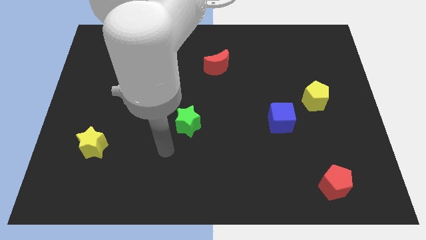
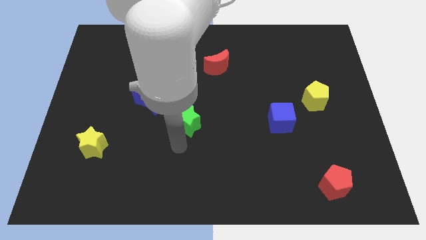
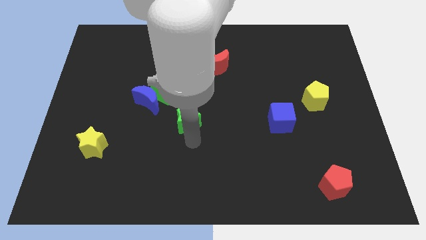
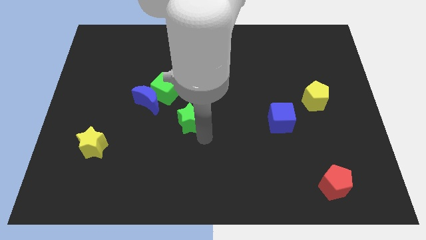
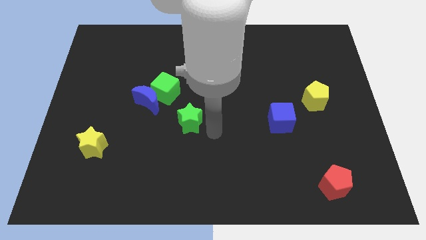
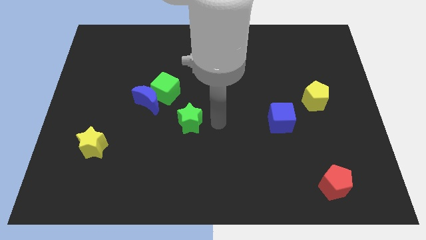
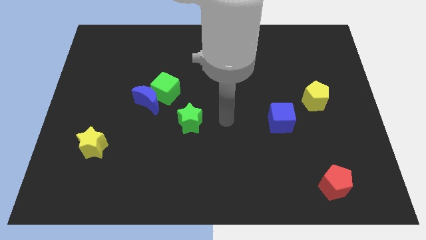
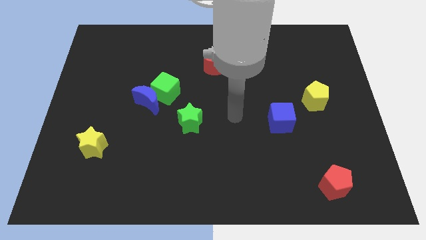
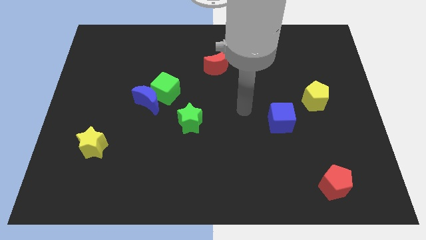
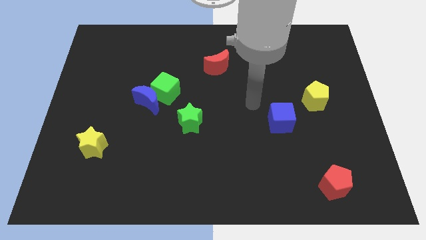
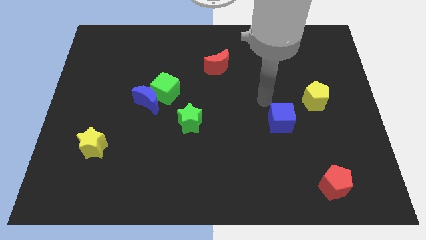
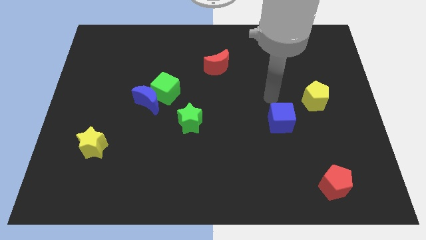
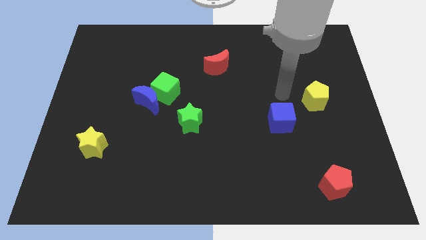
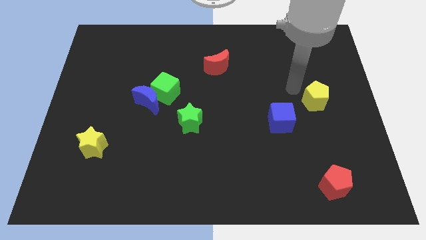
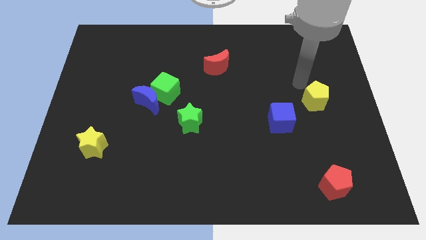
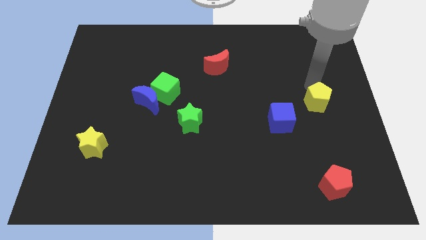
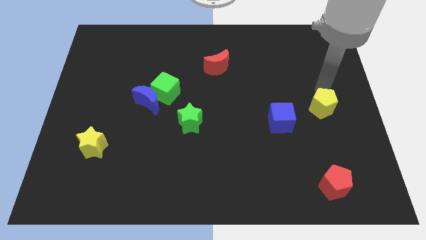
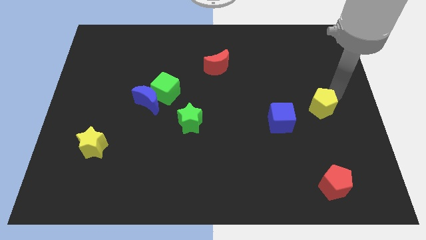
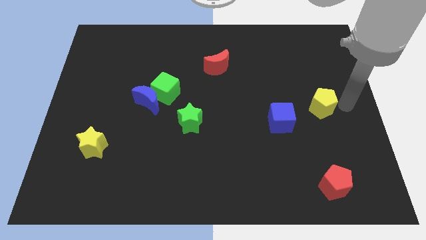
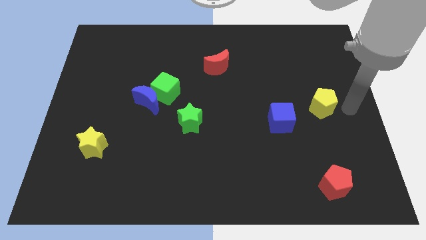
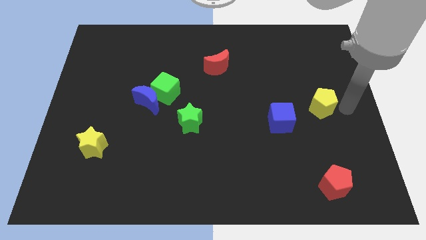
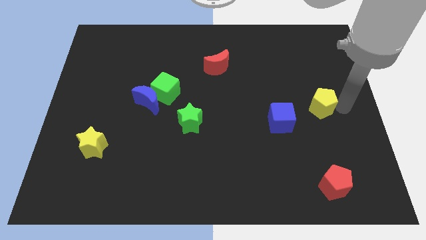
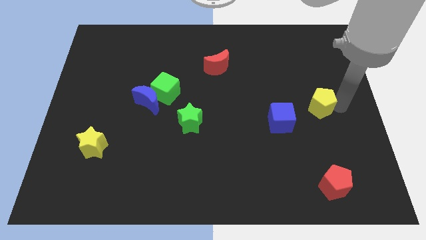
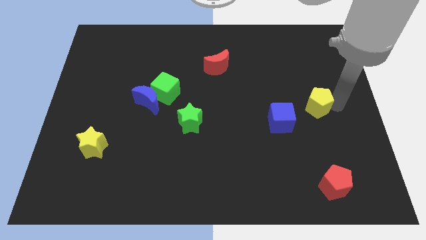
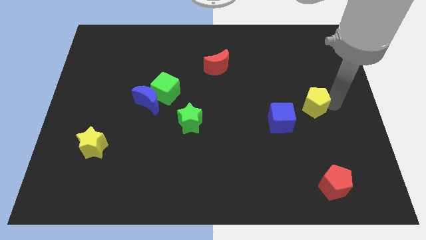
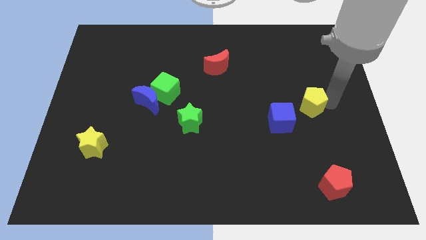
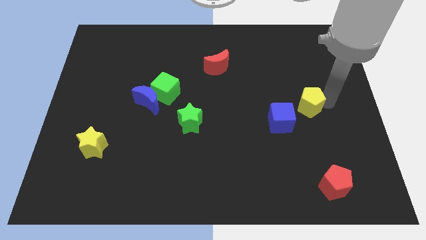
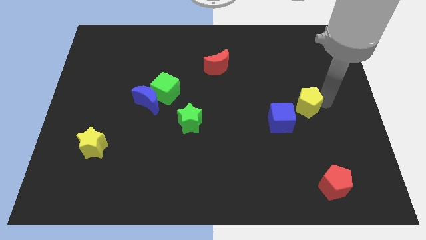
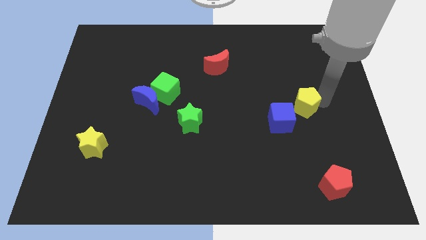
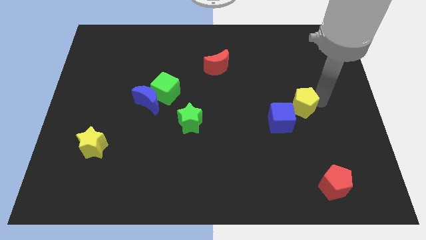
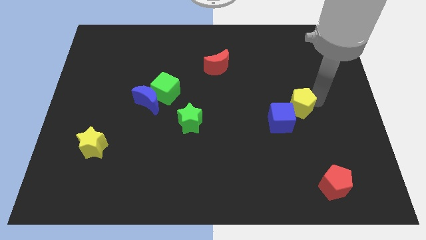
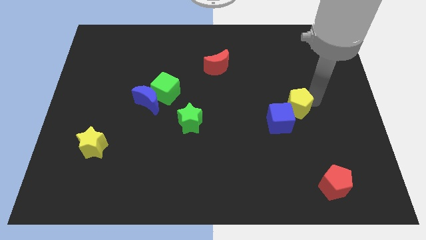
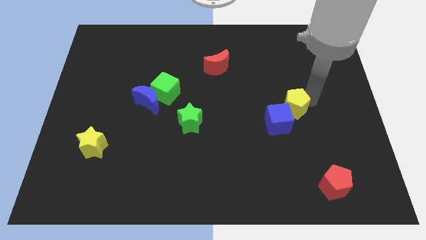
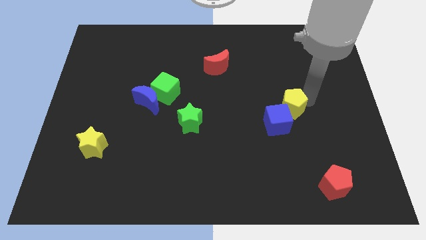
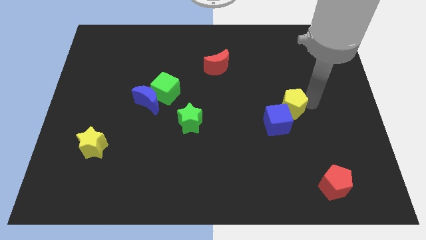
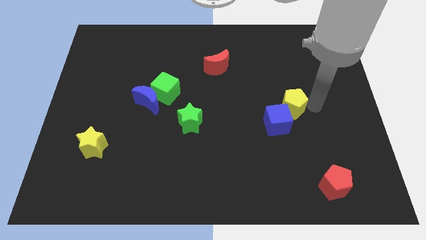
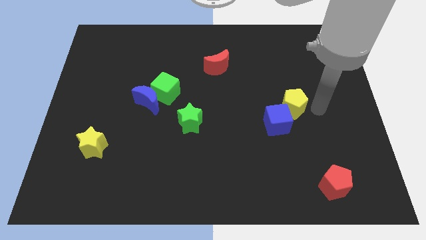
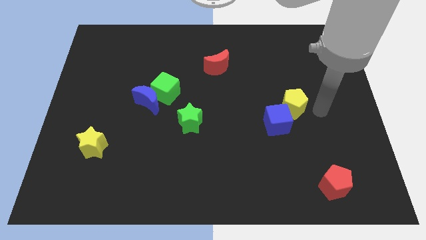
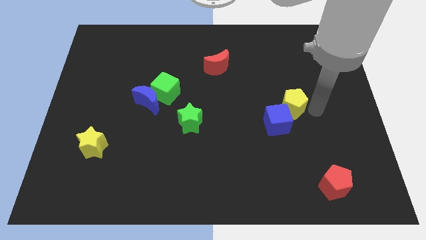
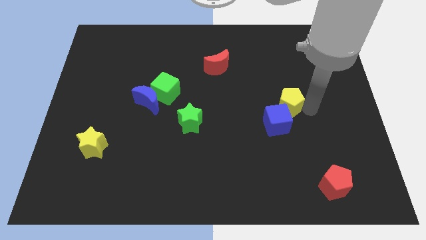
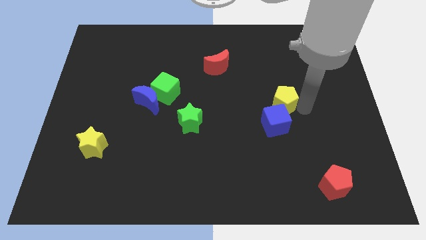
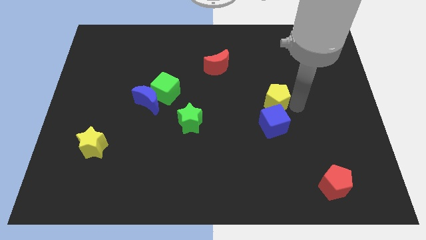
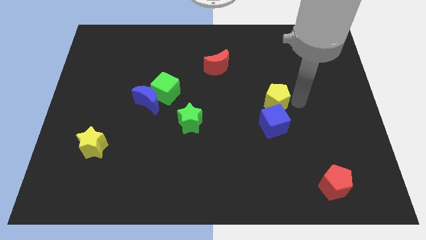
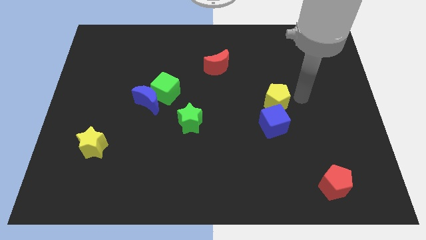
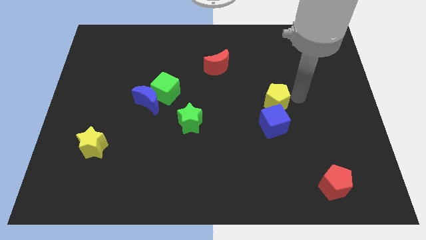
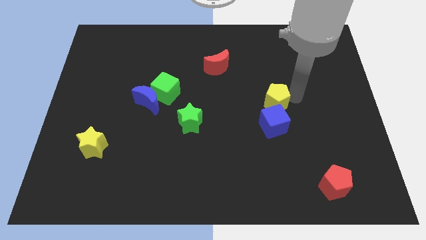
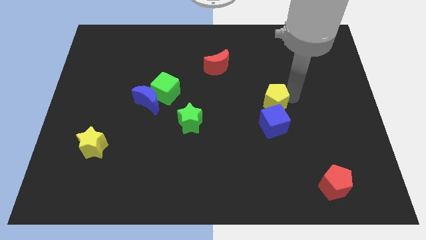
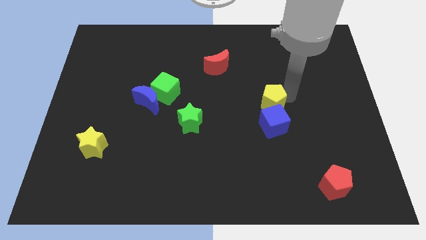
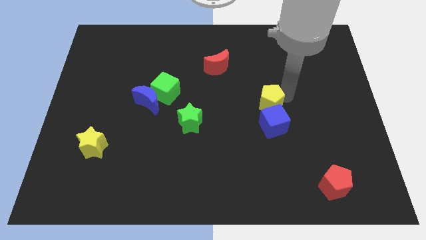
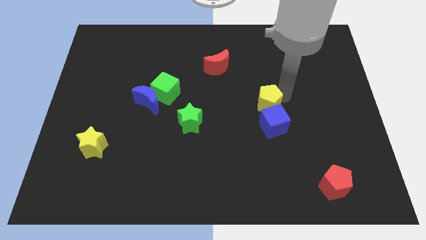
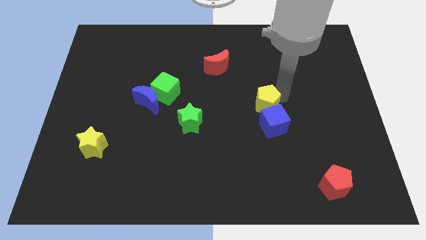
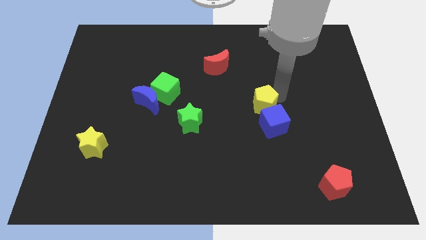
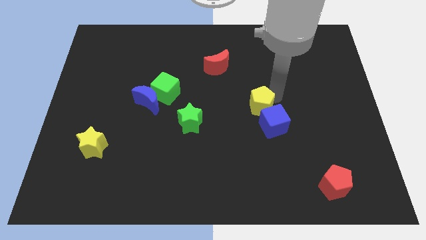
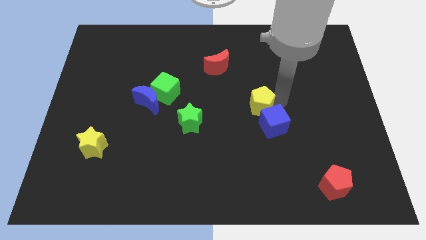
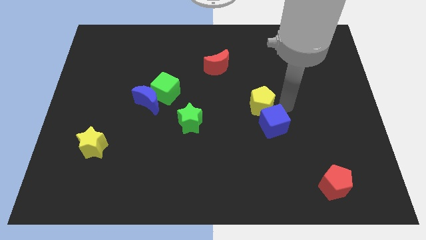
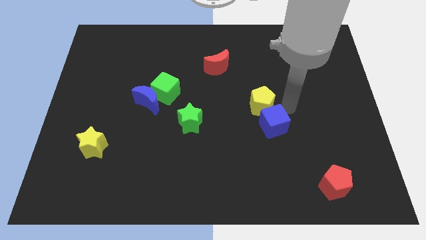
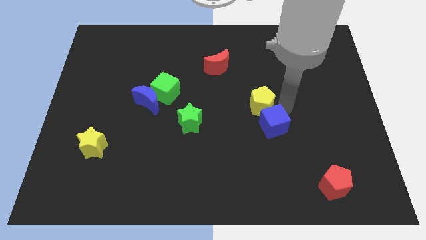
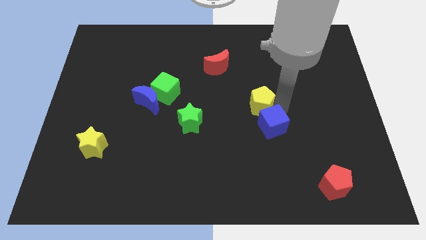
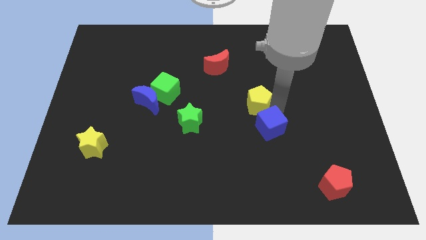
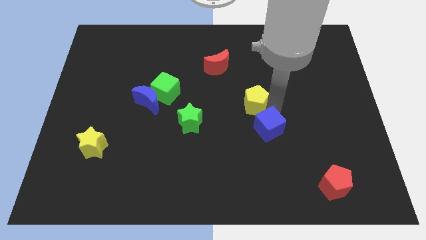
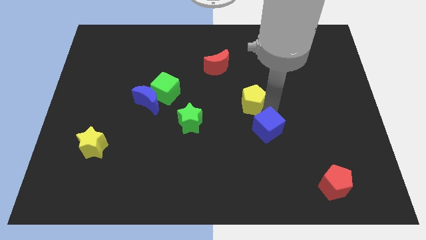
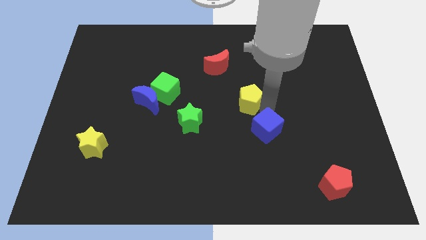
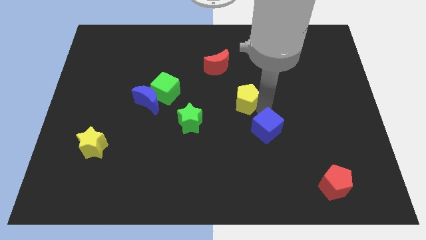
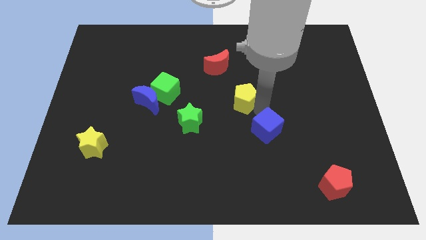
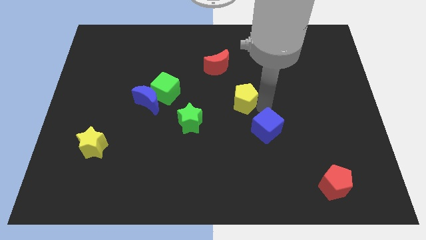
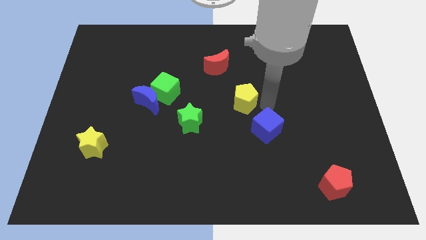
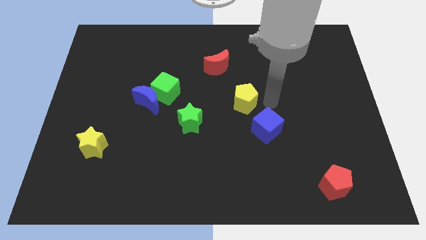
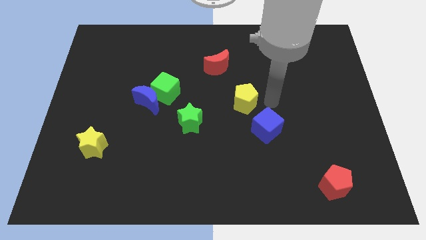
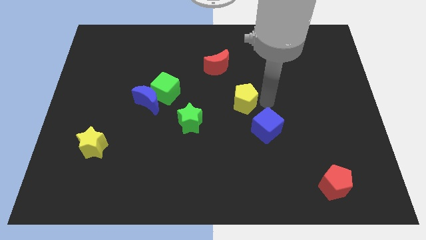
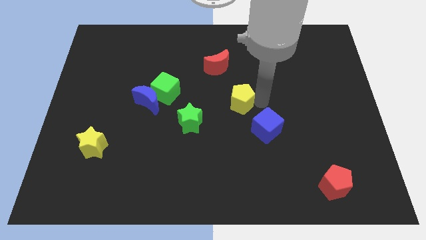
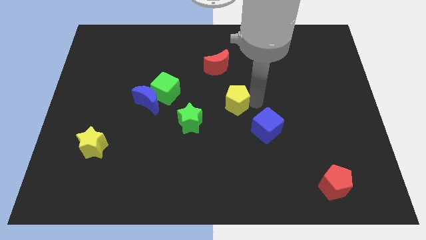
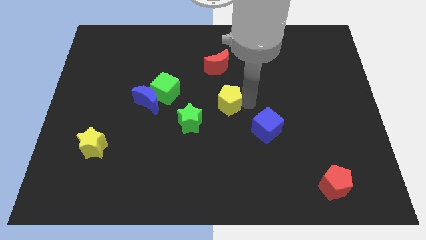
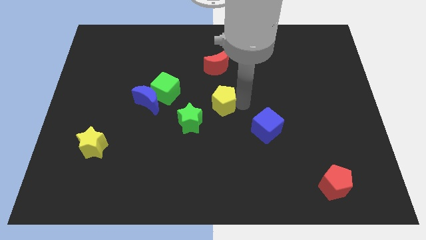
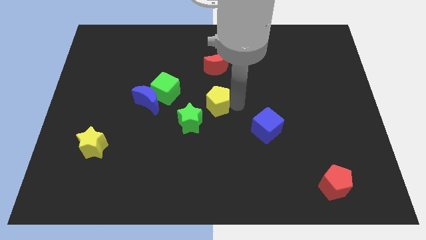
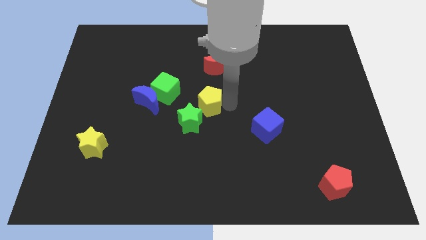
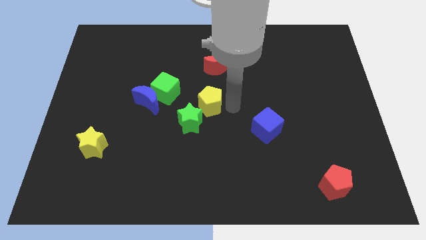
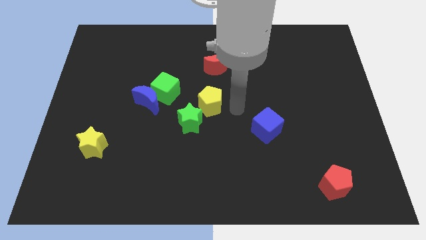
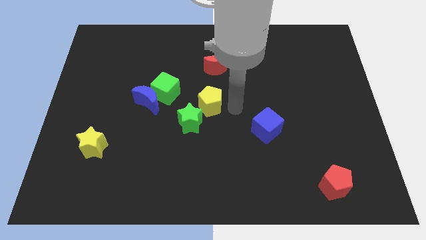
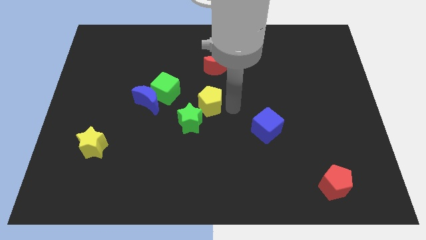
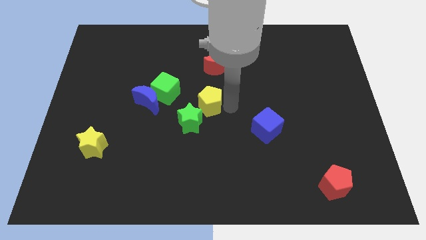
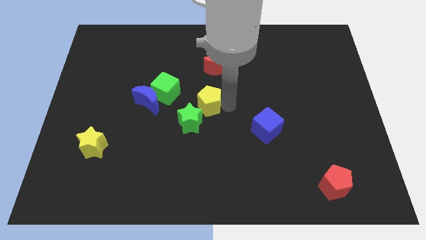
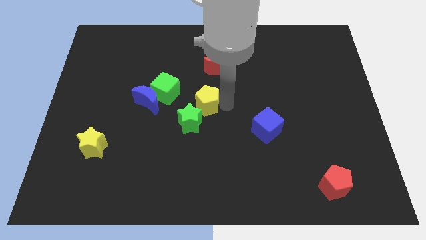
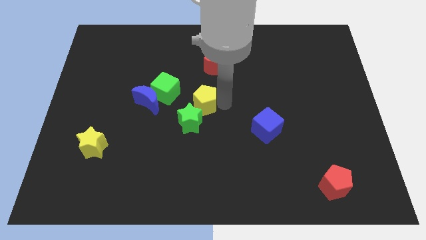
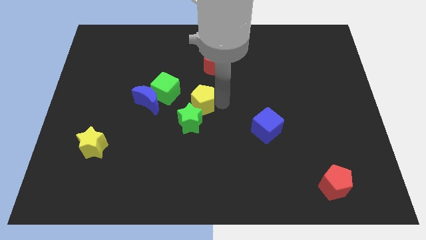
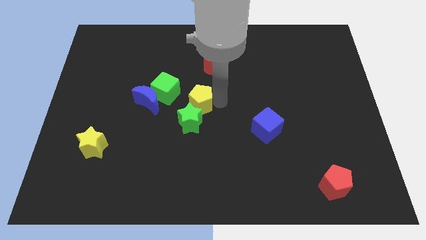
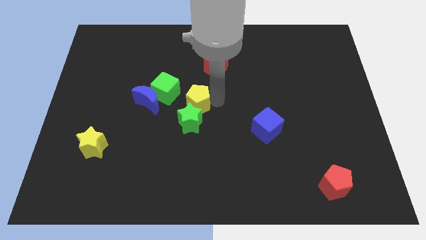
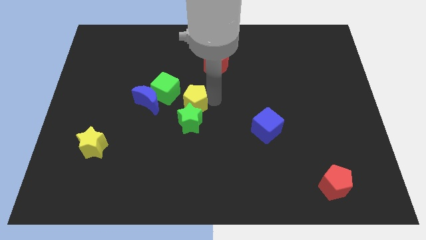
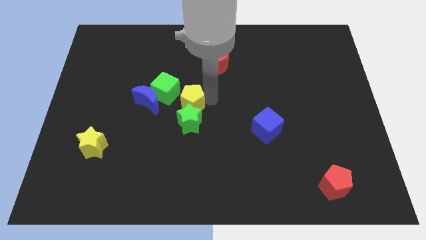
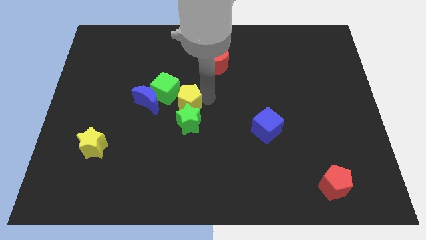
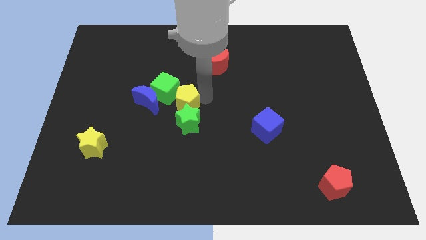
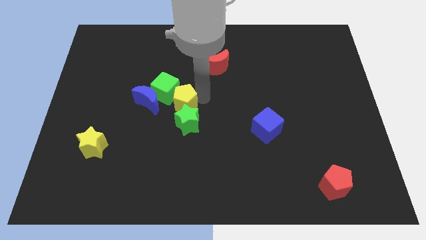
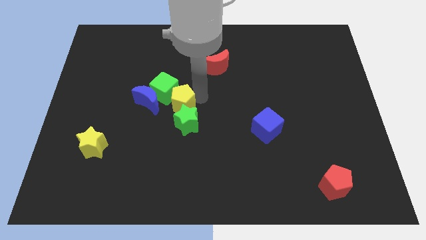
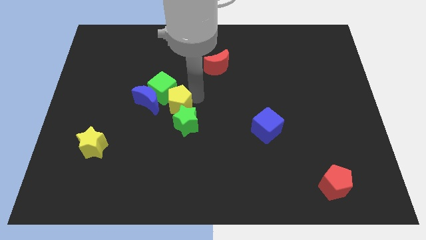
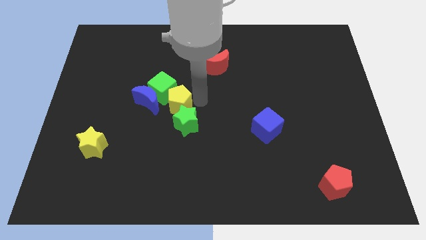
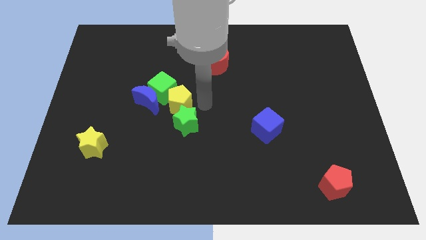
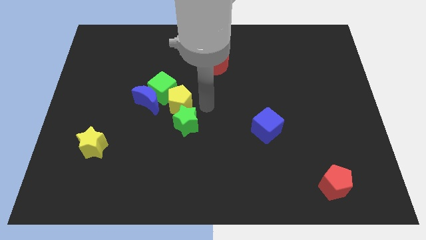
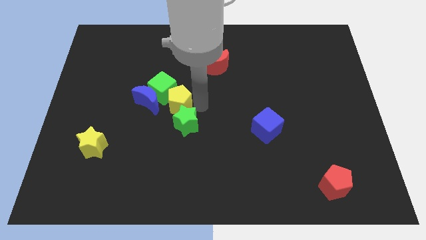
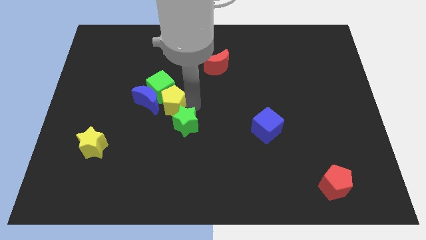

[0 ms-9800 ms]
move the yellow pentagon to the blue moon
